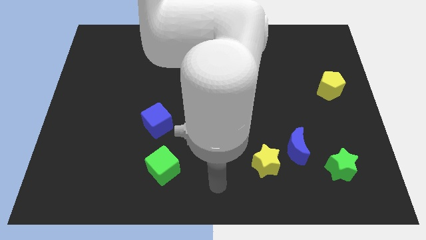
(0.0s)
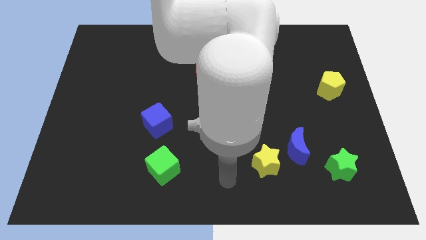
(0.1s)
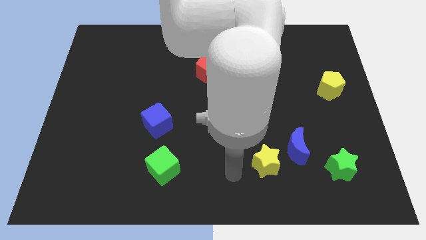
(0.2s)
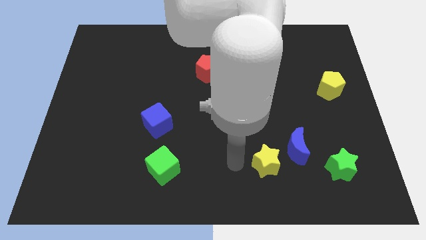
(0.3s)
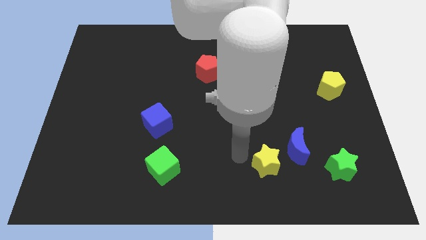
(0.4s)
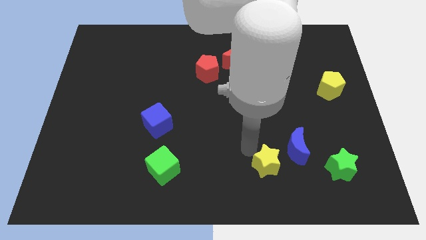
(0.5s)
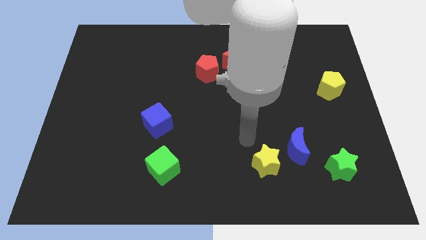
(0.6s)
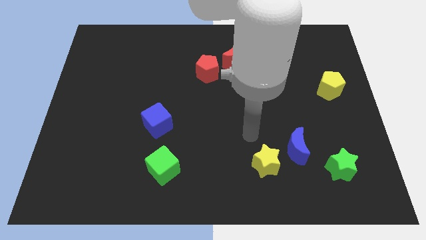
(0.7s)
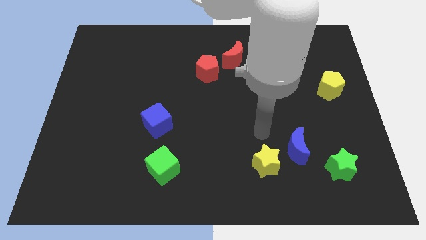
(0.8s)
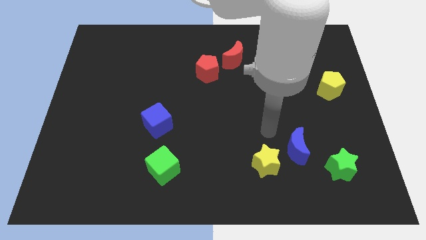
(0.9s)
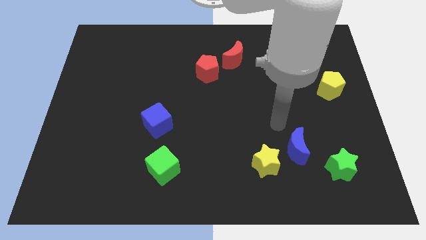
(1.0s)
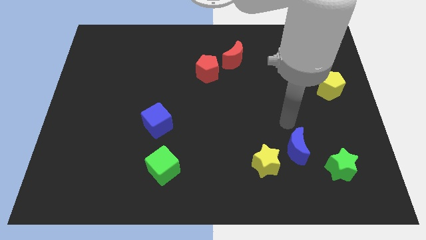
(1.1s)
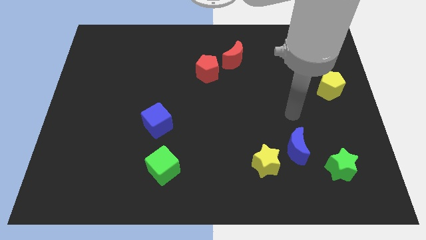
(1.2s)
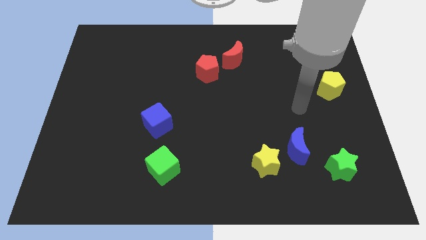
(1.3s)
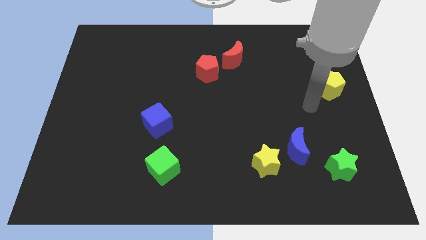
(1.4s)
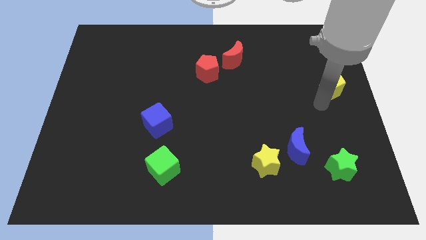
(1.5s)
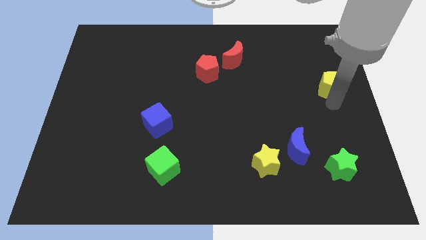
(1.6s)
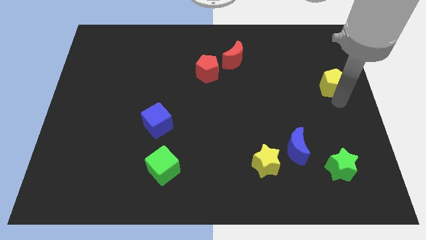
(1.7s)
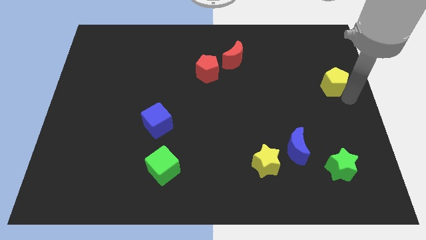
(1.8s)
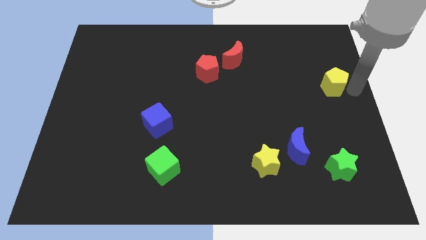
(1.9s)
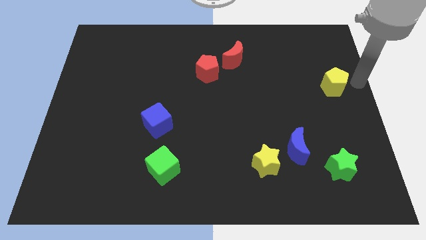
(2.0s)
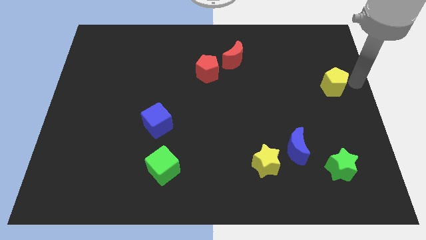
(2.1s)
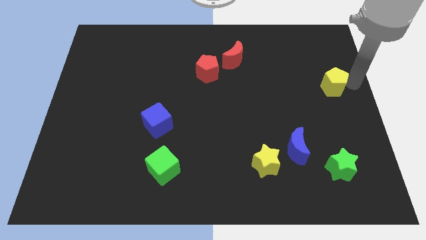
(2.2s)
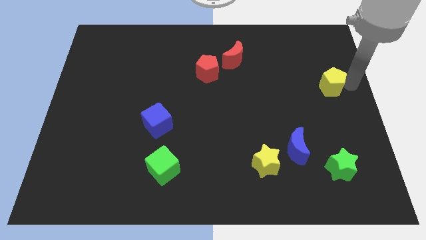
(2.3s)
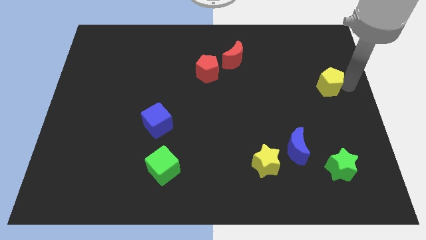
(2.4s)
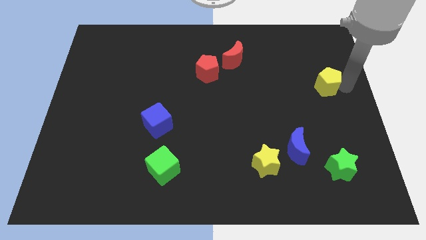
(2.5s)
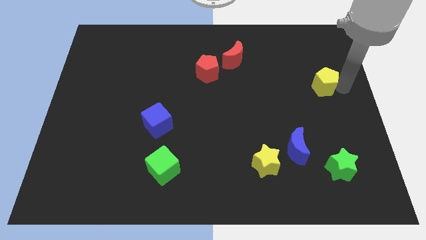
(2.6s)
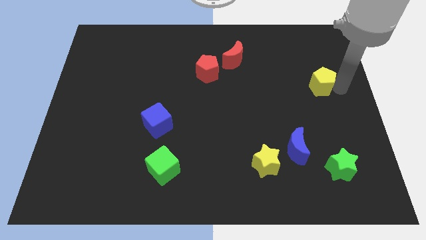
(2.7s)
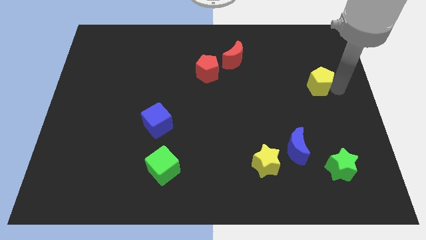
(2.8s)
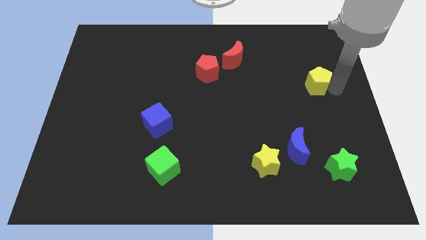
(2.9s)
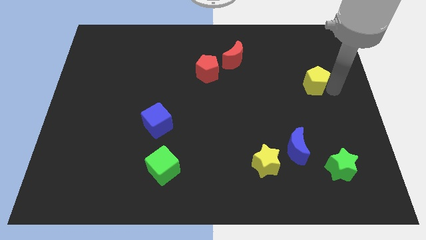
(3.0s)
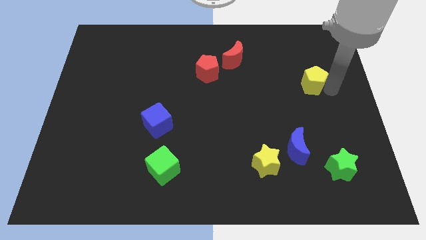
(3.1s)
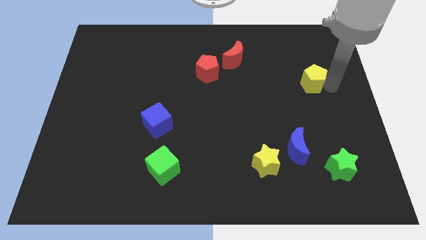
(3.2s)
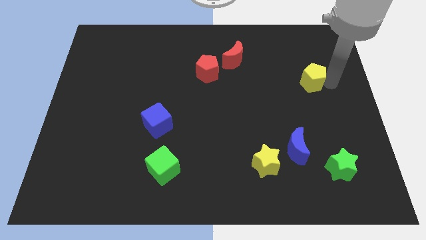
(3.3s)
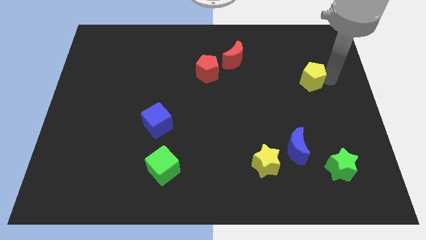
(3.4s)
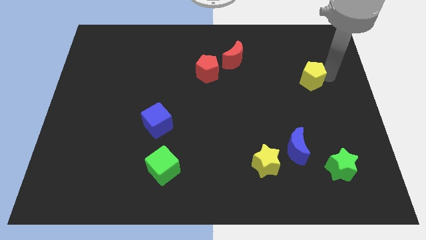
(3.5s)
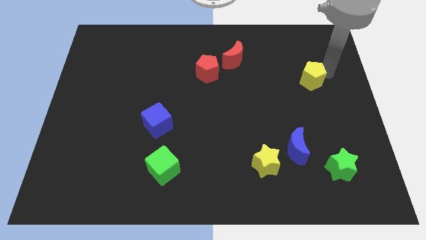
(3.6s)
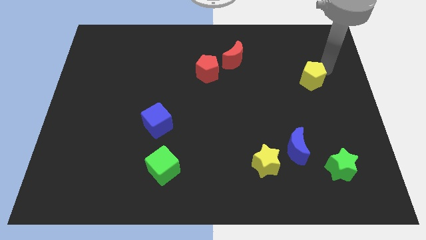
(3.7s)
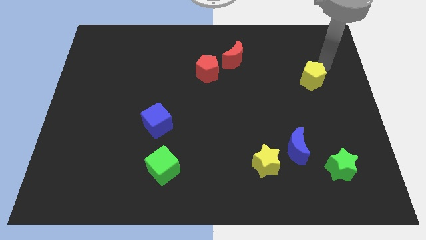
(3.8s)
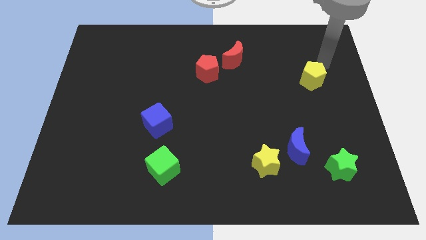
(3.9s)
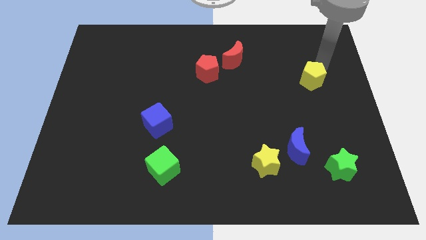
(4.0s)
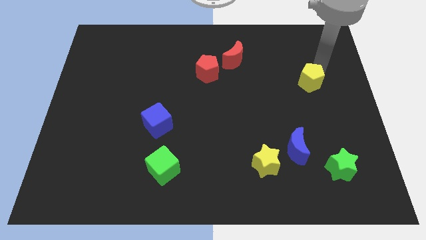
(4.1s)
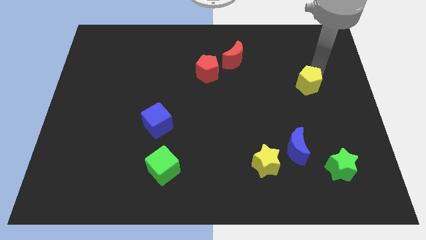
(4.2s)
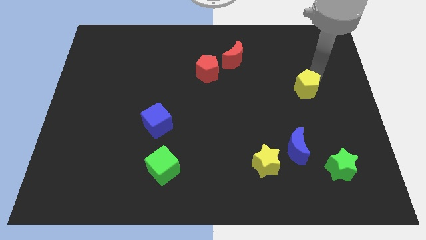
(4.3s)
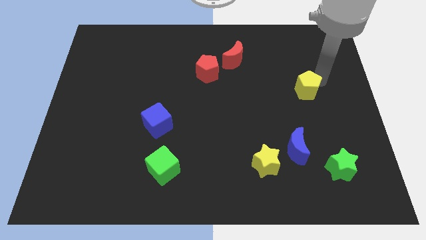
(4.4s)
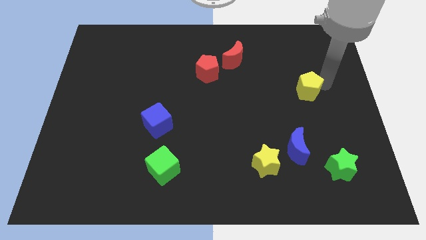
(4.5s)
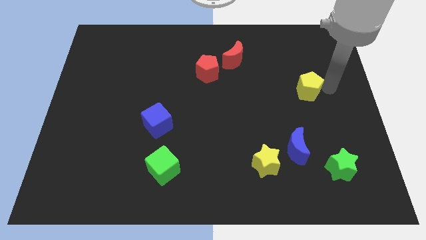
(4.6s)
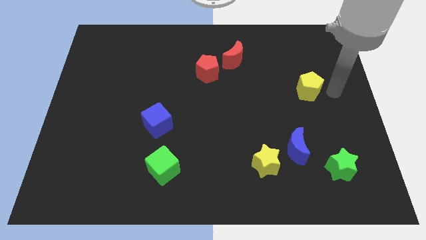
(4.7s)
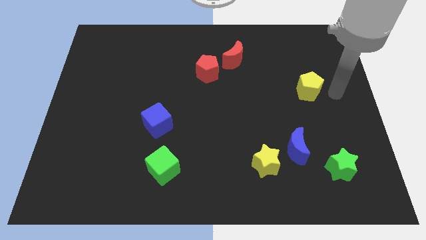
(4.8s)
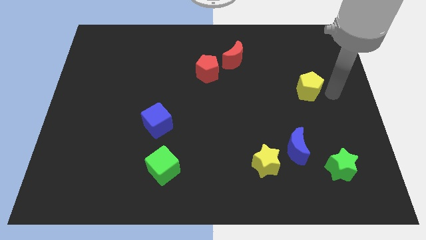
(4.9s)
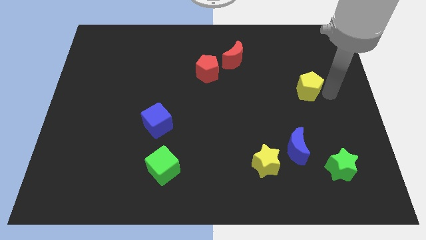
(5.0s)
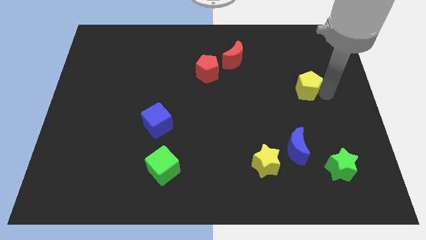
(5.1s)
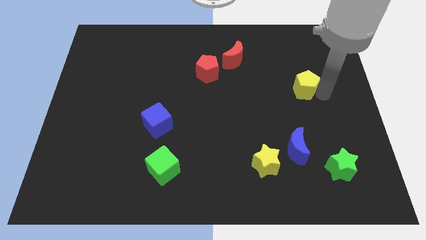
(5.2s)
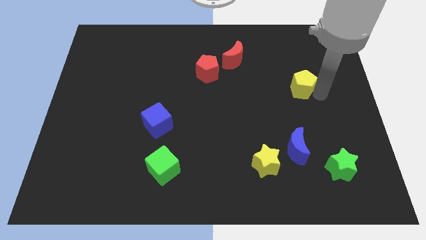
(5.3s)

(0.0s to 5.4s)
push the yellow pentagon to the left a little

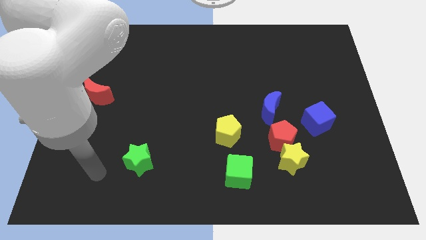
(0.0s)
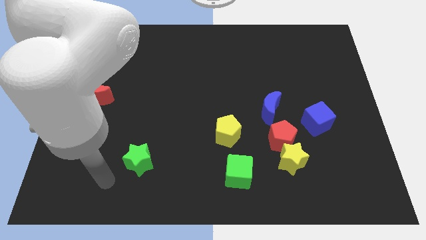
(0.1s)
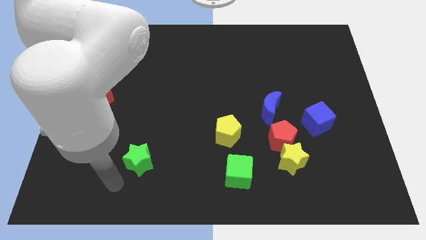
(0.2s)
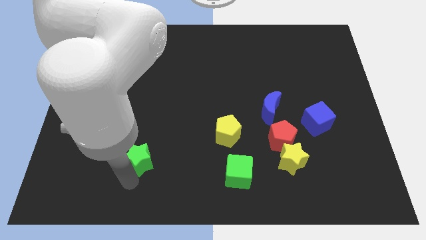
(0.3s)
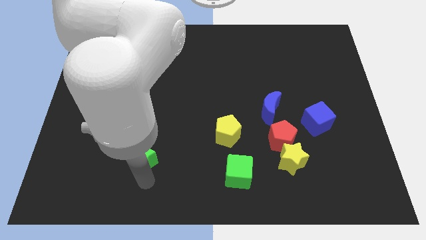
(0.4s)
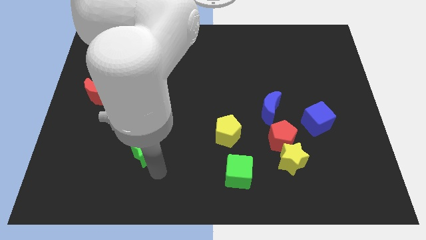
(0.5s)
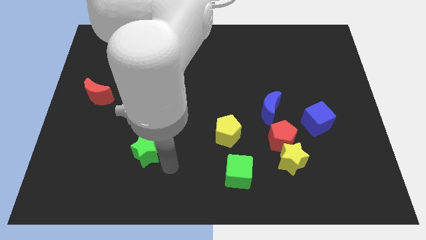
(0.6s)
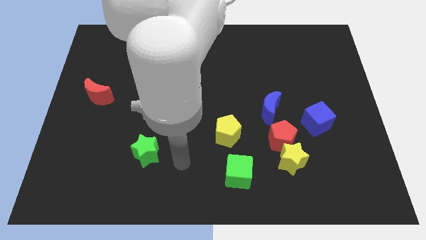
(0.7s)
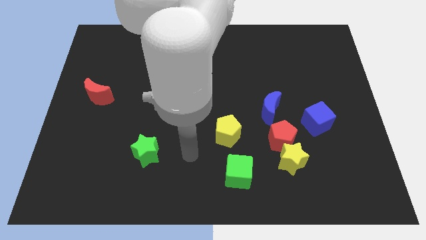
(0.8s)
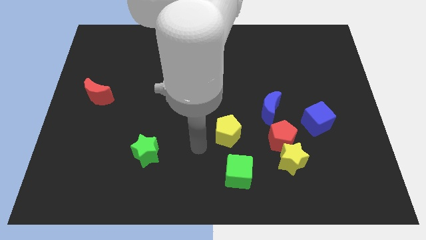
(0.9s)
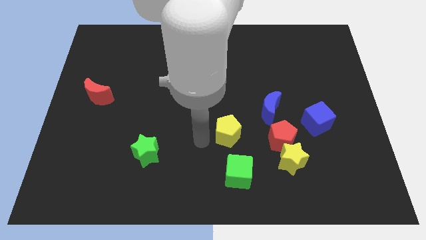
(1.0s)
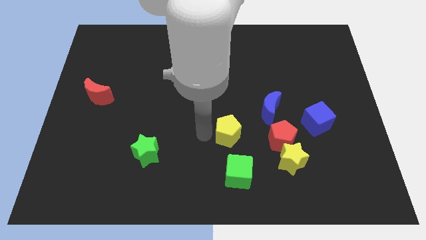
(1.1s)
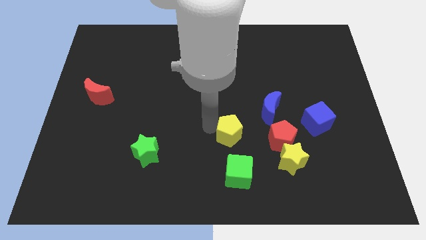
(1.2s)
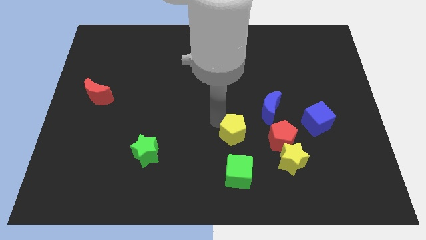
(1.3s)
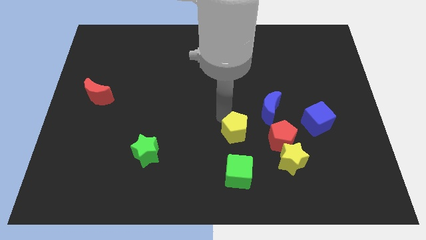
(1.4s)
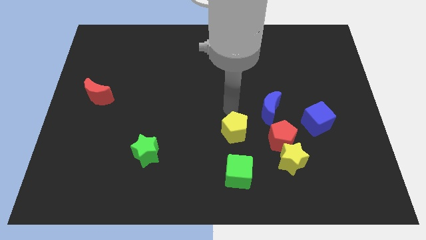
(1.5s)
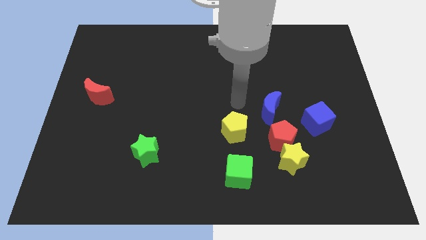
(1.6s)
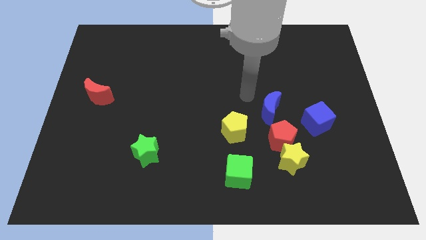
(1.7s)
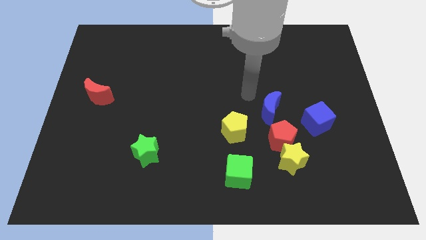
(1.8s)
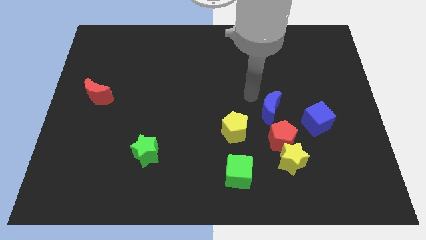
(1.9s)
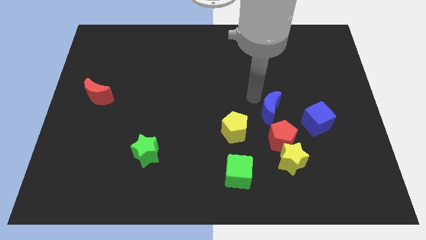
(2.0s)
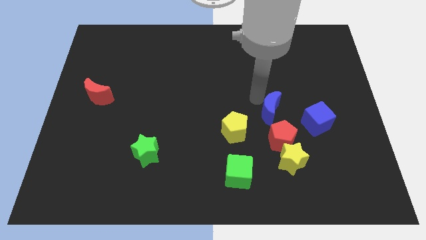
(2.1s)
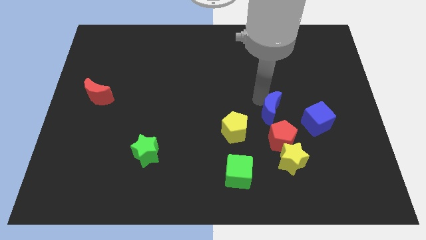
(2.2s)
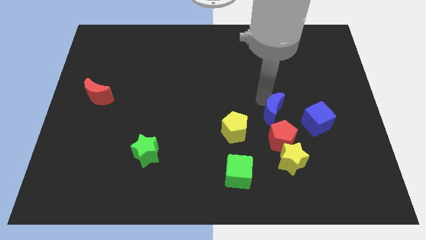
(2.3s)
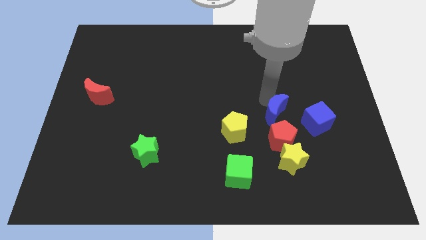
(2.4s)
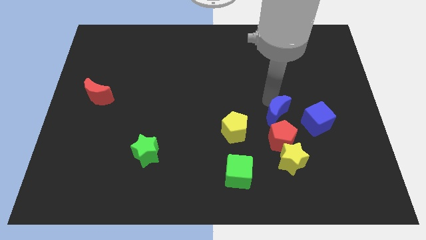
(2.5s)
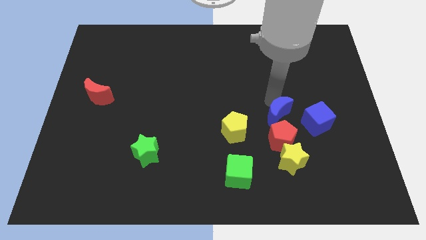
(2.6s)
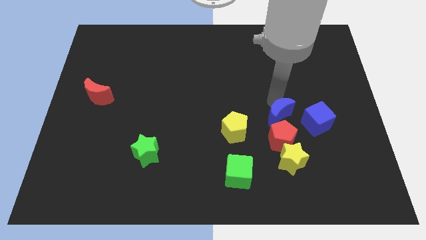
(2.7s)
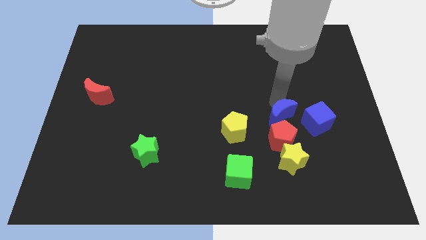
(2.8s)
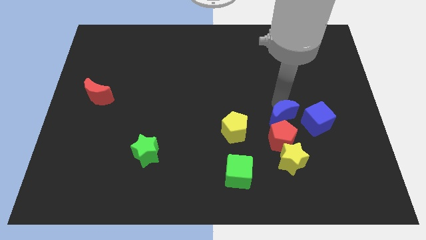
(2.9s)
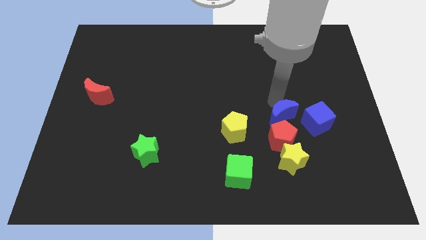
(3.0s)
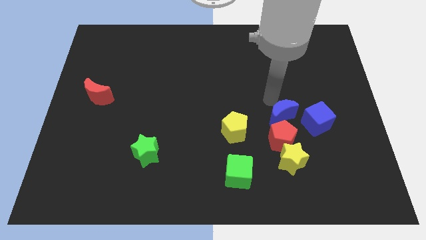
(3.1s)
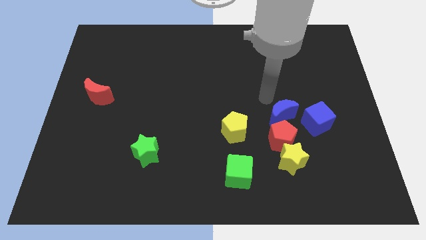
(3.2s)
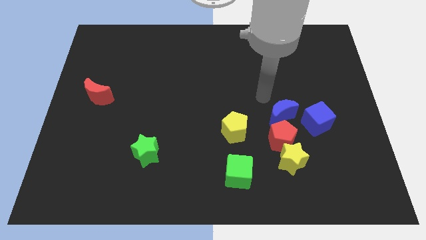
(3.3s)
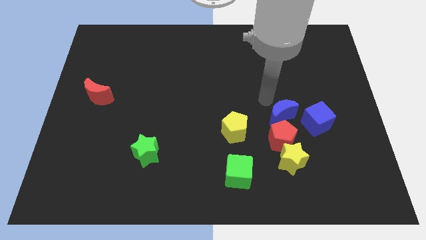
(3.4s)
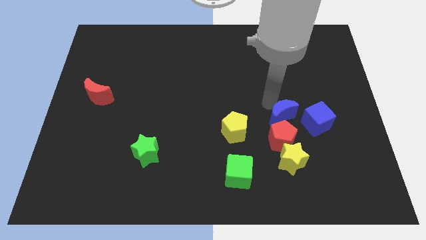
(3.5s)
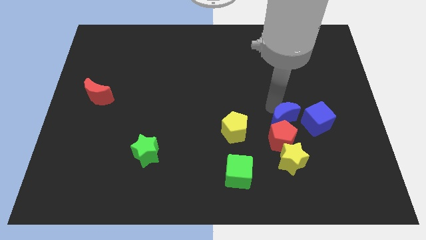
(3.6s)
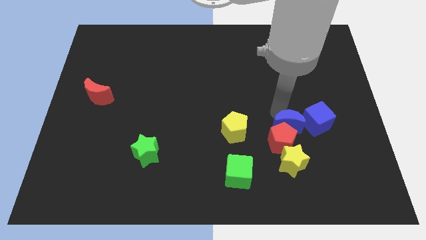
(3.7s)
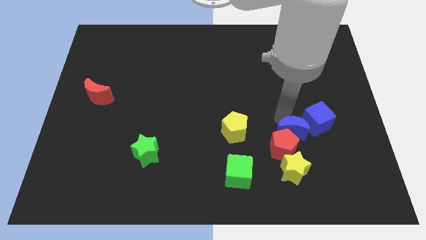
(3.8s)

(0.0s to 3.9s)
push the blue moon somewhat down and to the right diagonally
